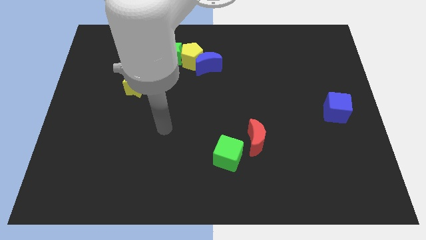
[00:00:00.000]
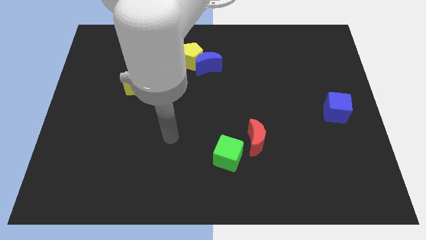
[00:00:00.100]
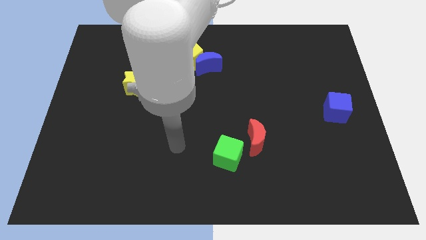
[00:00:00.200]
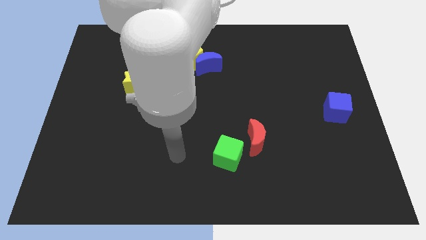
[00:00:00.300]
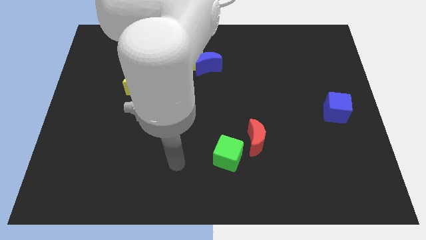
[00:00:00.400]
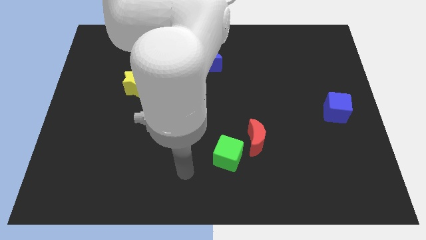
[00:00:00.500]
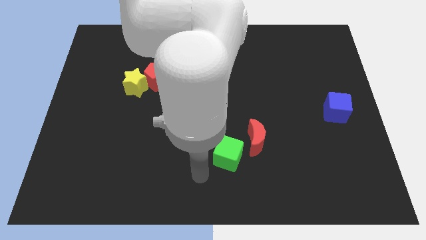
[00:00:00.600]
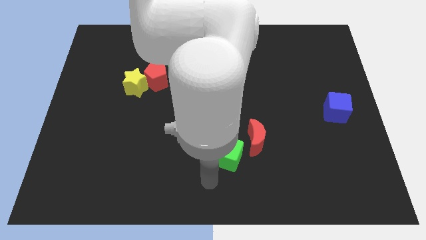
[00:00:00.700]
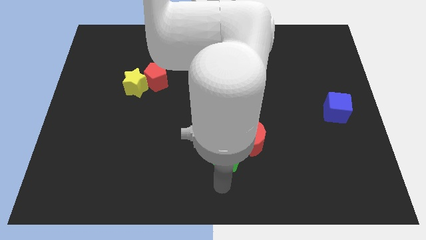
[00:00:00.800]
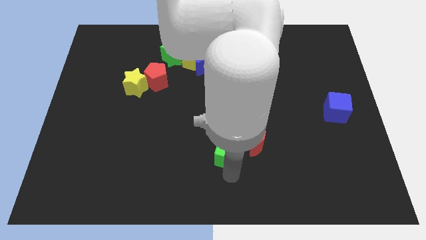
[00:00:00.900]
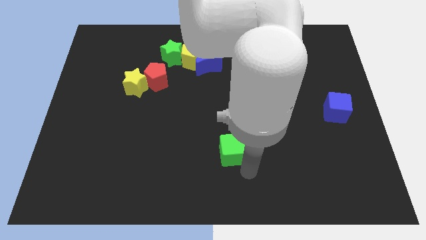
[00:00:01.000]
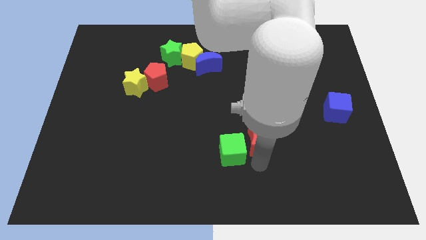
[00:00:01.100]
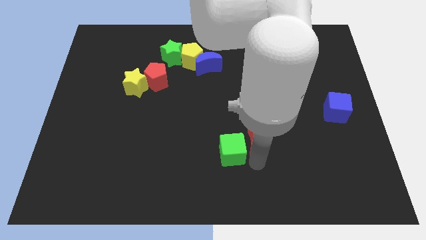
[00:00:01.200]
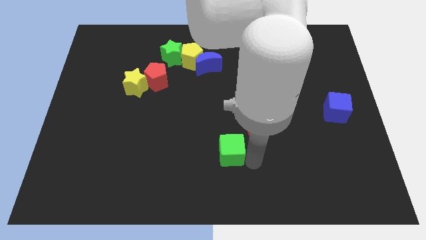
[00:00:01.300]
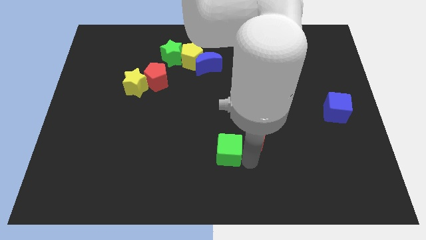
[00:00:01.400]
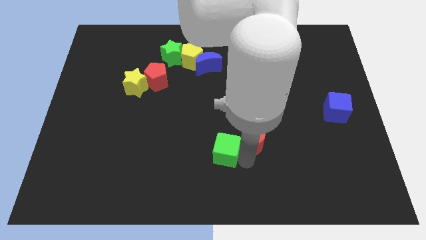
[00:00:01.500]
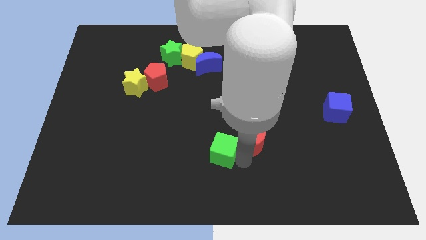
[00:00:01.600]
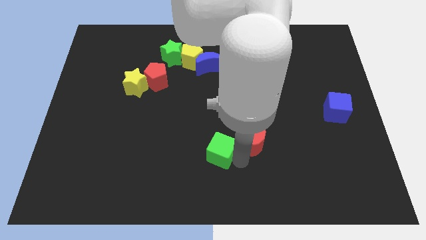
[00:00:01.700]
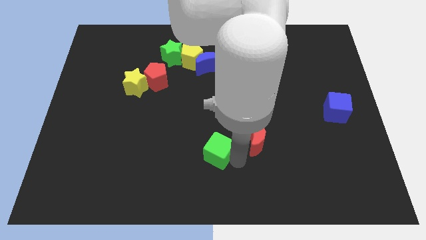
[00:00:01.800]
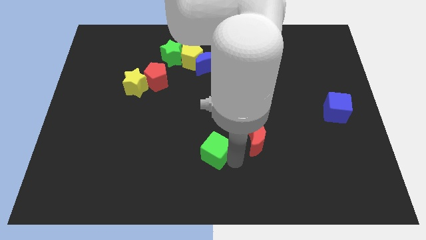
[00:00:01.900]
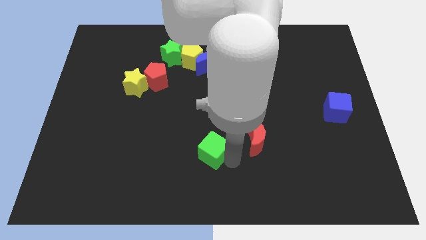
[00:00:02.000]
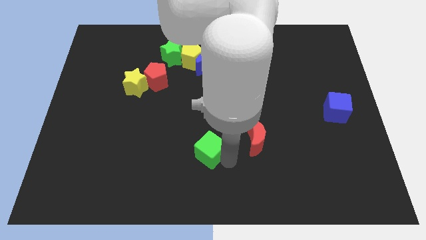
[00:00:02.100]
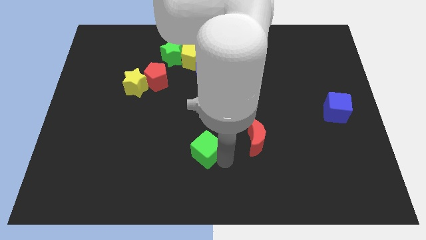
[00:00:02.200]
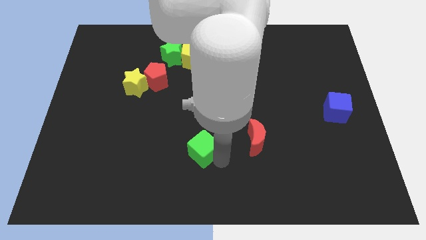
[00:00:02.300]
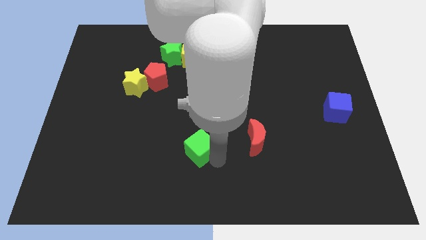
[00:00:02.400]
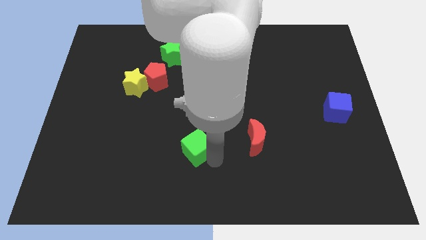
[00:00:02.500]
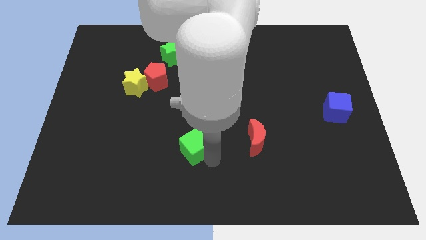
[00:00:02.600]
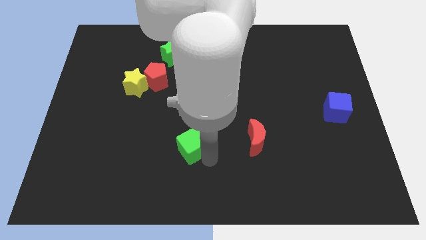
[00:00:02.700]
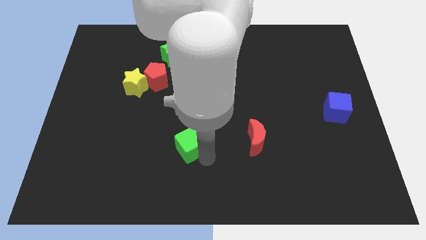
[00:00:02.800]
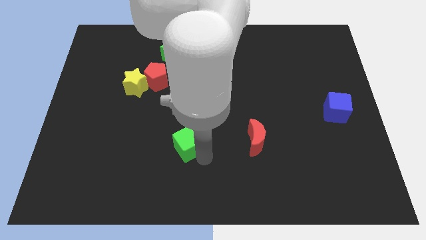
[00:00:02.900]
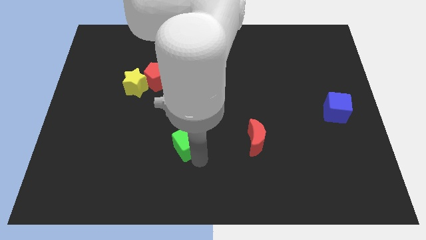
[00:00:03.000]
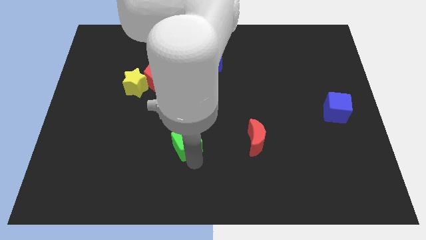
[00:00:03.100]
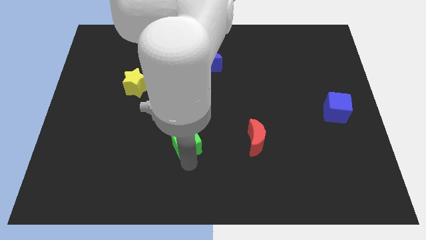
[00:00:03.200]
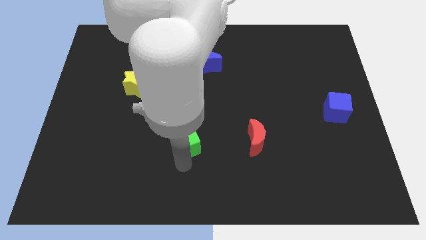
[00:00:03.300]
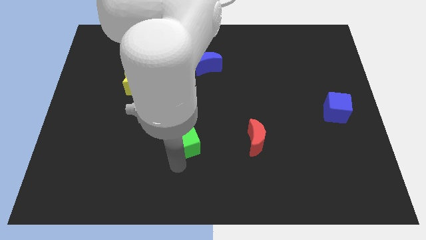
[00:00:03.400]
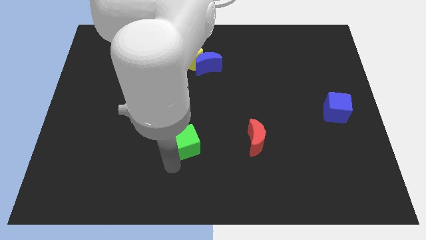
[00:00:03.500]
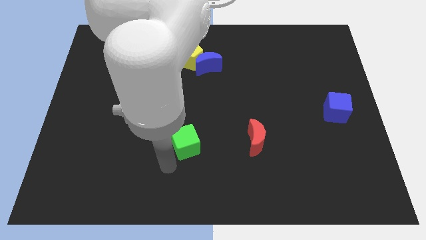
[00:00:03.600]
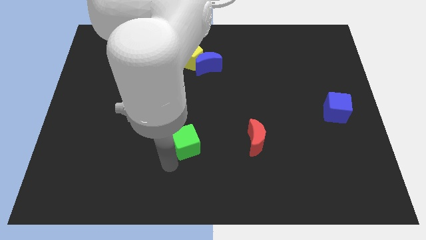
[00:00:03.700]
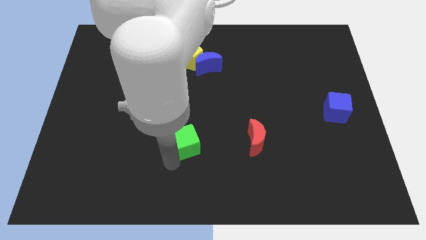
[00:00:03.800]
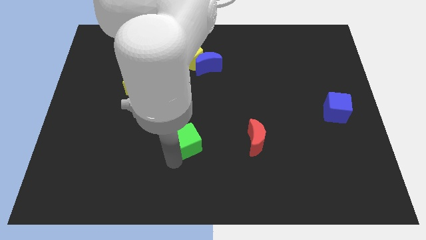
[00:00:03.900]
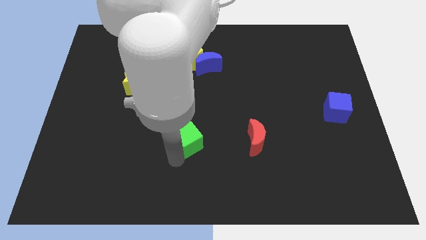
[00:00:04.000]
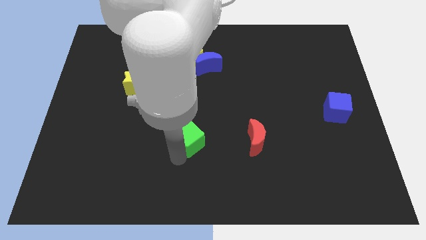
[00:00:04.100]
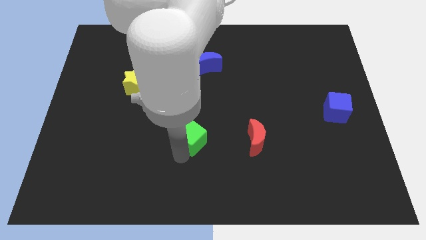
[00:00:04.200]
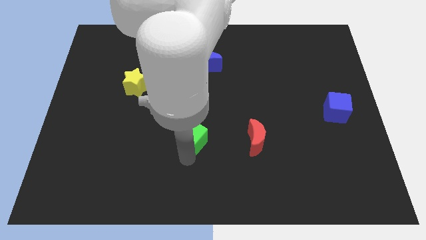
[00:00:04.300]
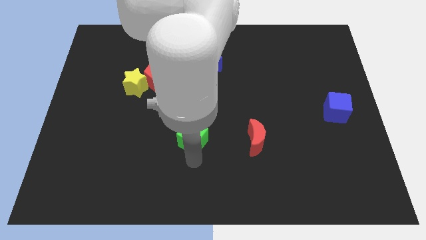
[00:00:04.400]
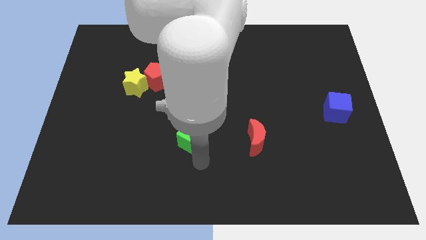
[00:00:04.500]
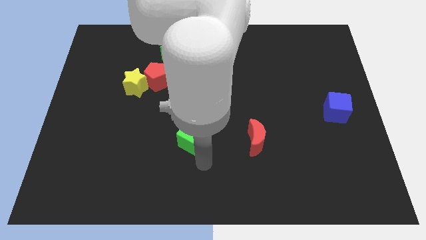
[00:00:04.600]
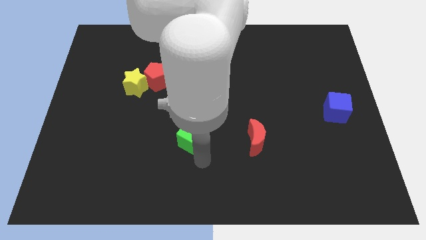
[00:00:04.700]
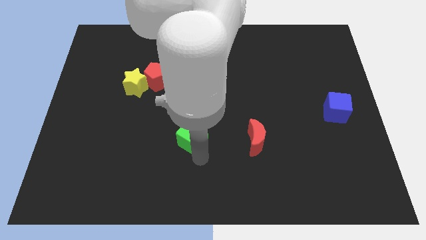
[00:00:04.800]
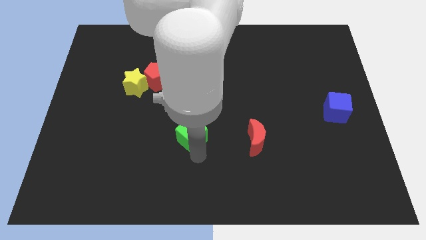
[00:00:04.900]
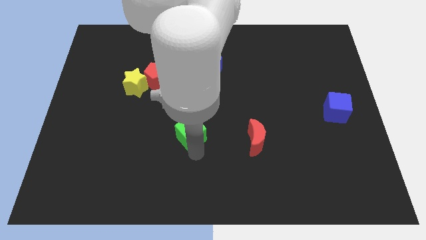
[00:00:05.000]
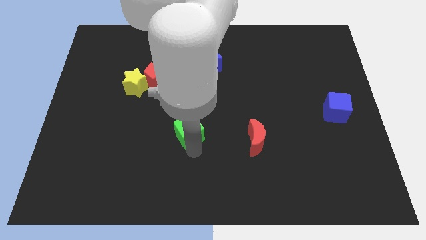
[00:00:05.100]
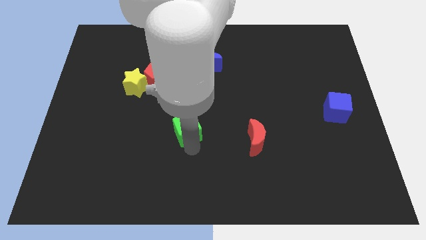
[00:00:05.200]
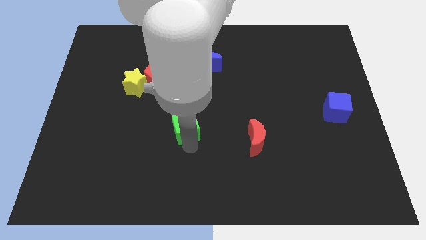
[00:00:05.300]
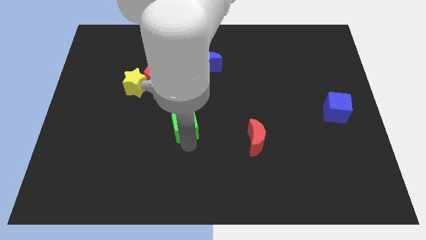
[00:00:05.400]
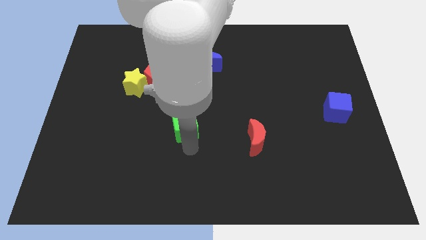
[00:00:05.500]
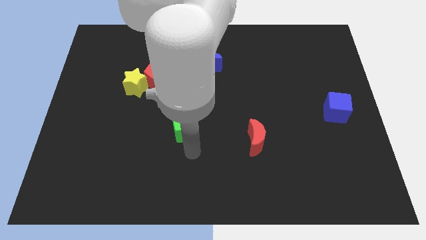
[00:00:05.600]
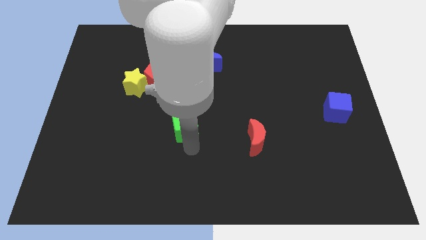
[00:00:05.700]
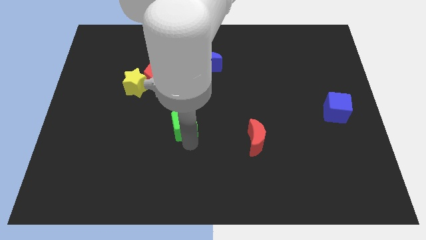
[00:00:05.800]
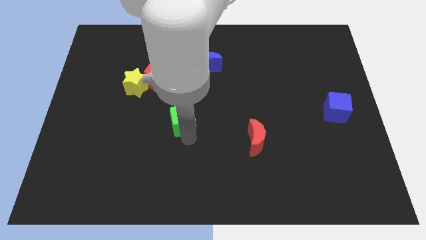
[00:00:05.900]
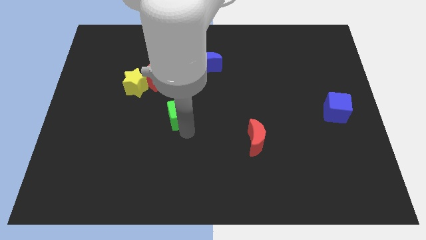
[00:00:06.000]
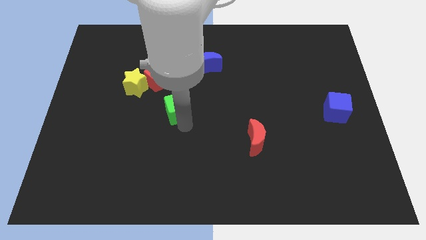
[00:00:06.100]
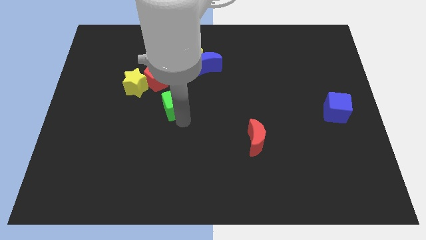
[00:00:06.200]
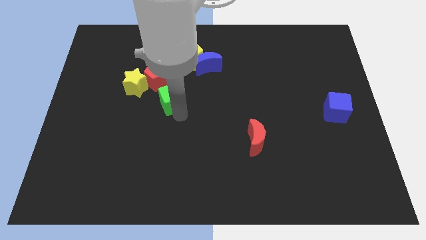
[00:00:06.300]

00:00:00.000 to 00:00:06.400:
push the green cube below the green star
